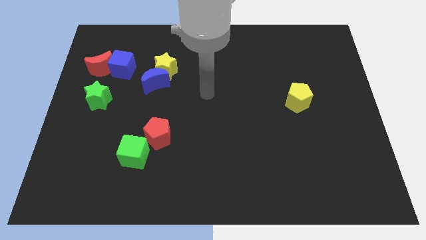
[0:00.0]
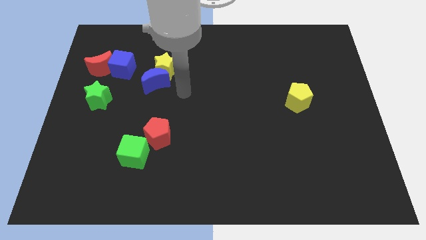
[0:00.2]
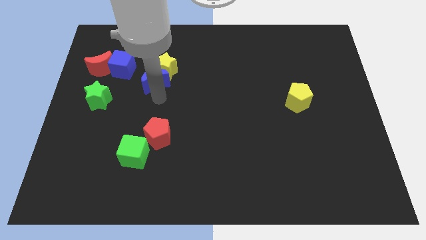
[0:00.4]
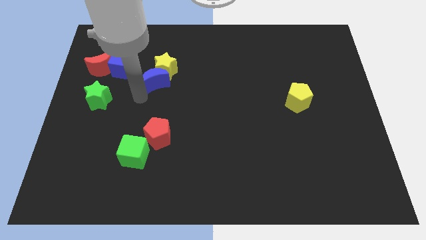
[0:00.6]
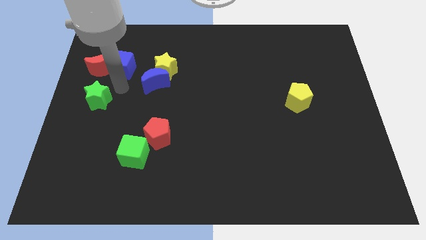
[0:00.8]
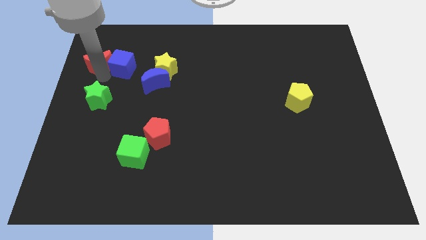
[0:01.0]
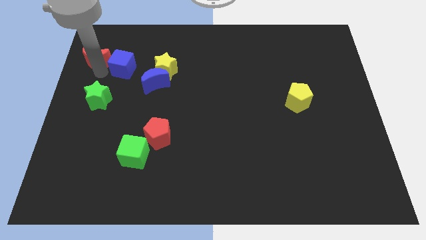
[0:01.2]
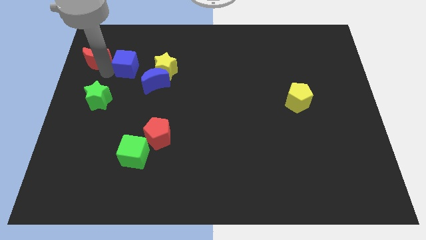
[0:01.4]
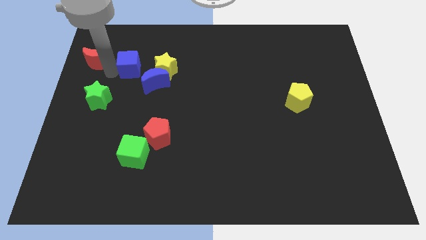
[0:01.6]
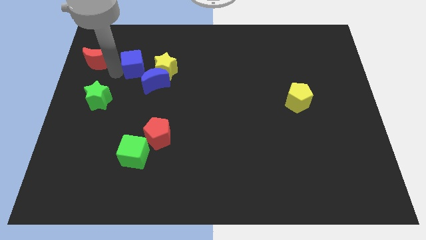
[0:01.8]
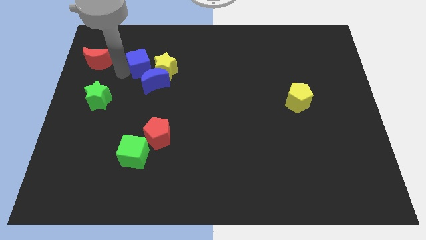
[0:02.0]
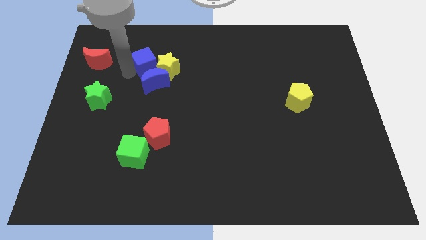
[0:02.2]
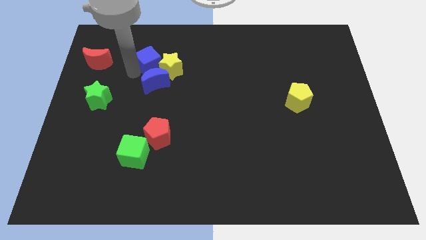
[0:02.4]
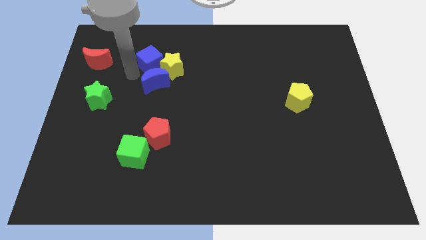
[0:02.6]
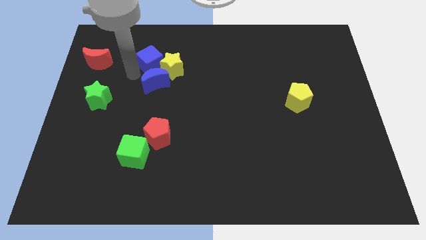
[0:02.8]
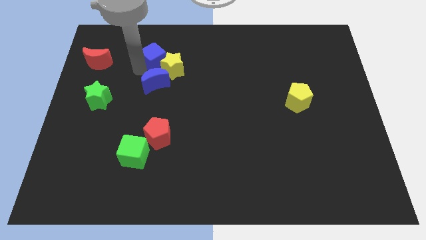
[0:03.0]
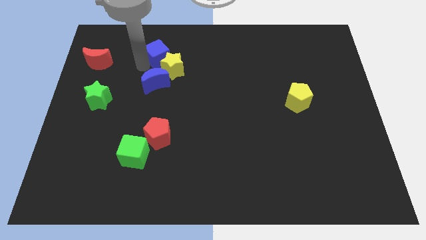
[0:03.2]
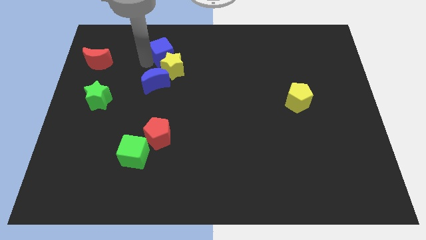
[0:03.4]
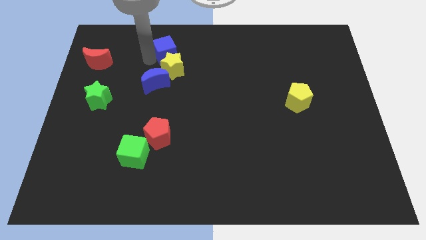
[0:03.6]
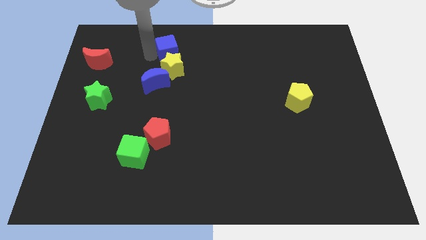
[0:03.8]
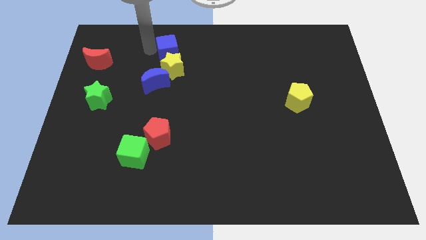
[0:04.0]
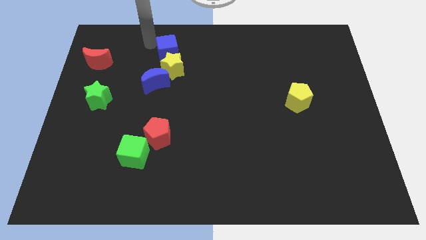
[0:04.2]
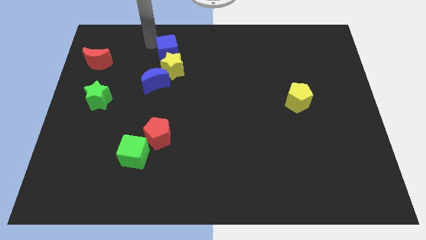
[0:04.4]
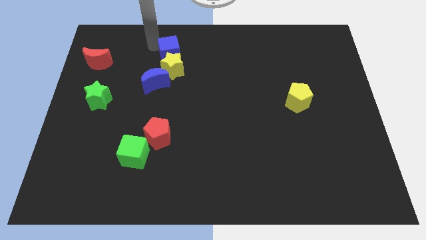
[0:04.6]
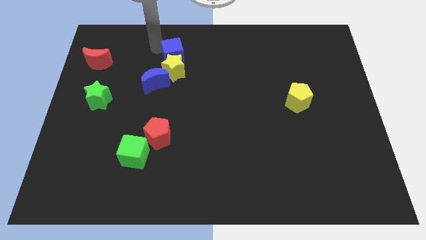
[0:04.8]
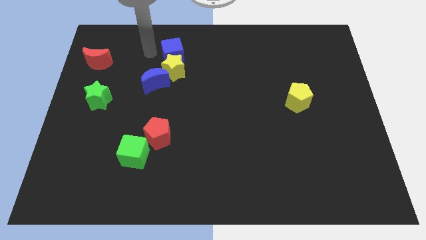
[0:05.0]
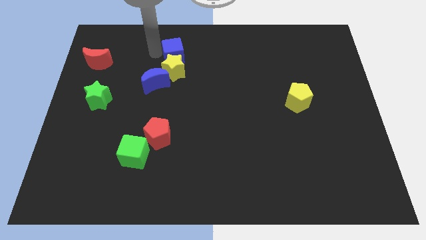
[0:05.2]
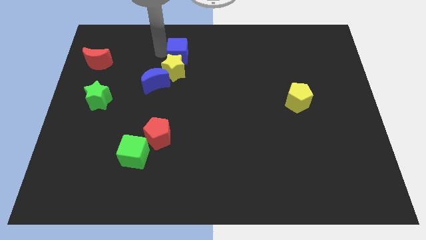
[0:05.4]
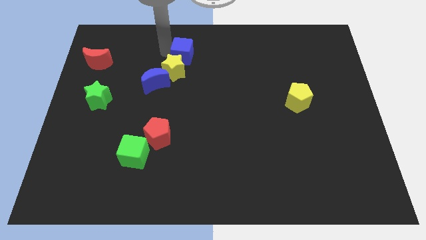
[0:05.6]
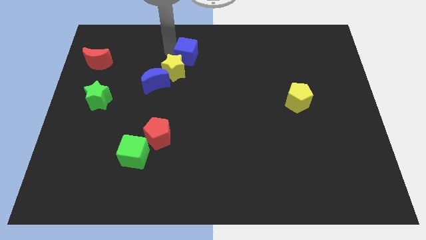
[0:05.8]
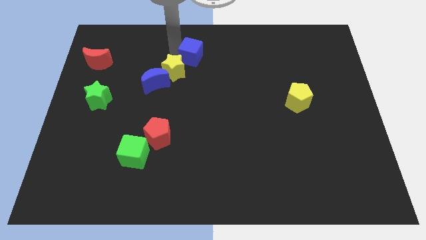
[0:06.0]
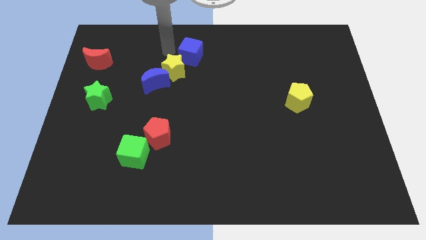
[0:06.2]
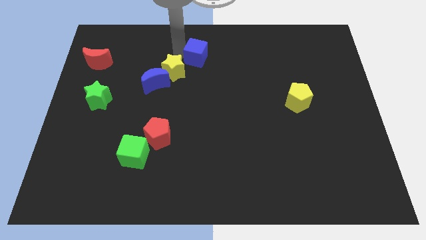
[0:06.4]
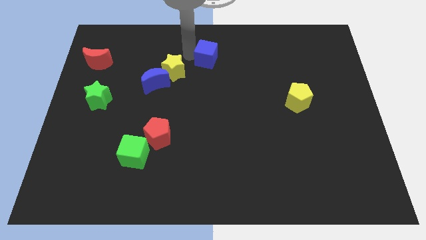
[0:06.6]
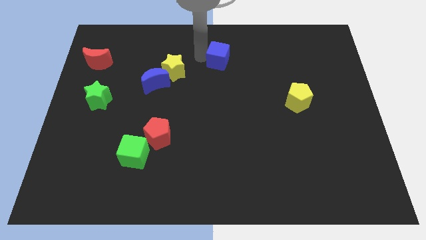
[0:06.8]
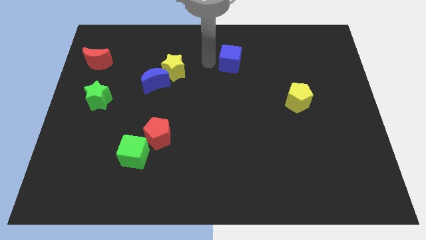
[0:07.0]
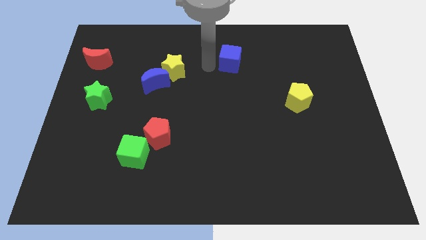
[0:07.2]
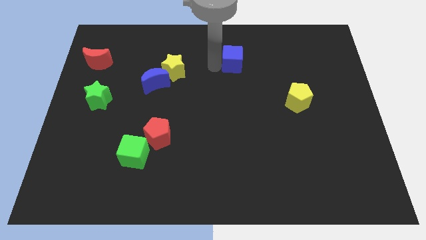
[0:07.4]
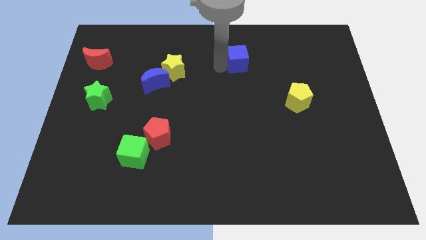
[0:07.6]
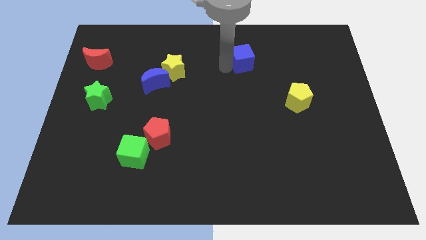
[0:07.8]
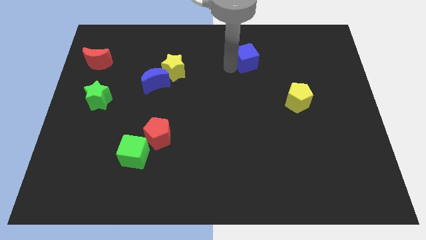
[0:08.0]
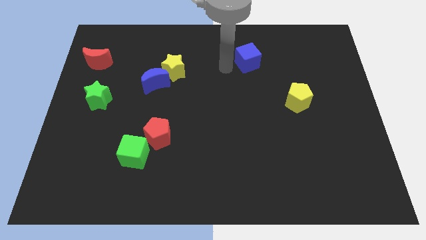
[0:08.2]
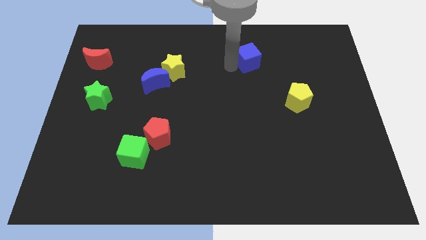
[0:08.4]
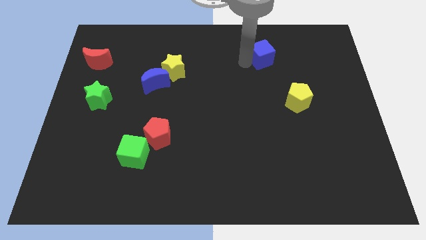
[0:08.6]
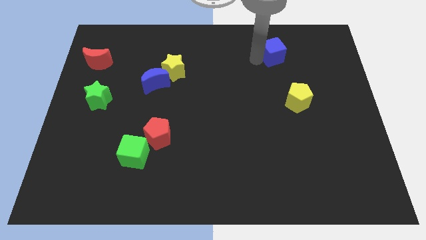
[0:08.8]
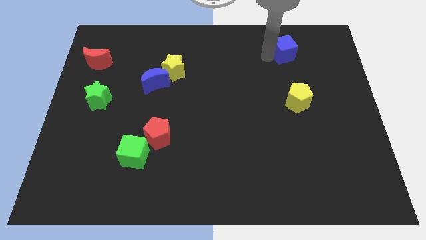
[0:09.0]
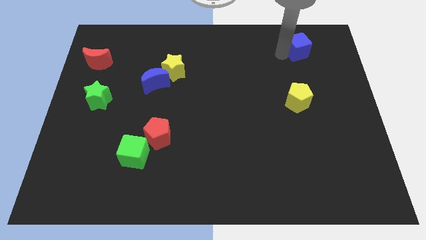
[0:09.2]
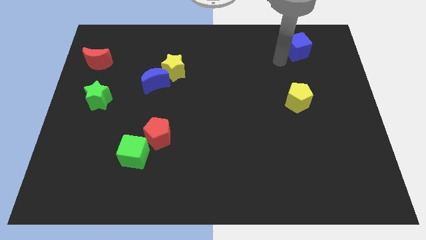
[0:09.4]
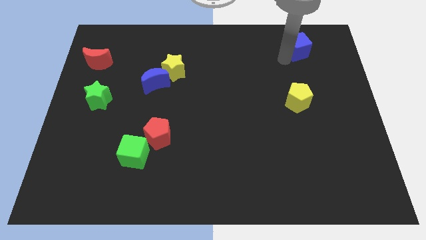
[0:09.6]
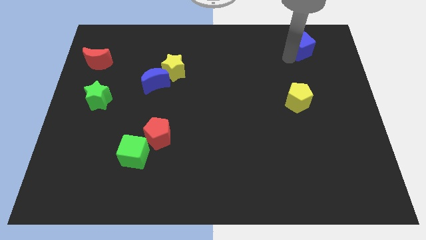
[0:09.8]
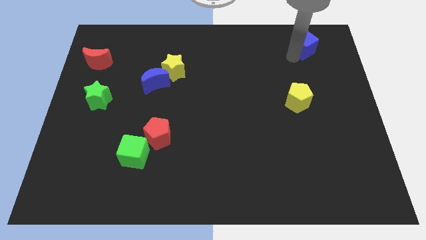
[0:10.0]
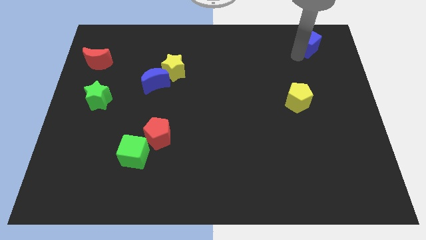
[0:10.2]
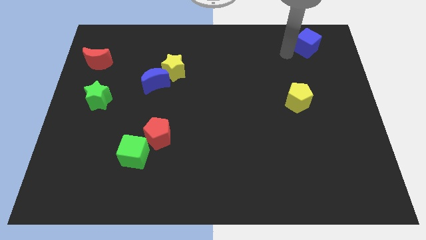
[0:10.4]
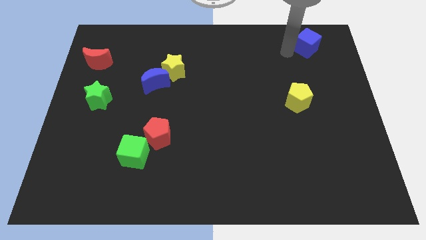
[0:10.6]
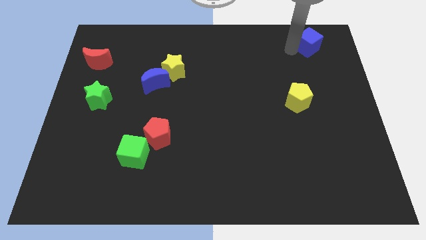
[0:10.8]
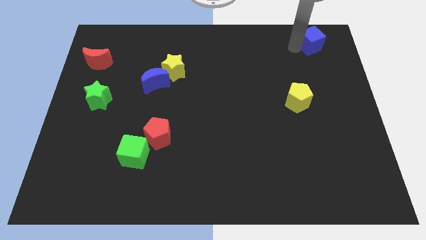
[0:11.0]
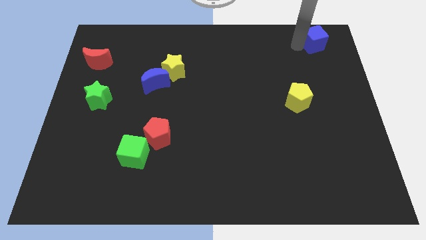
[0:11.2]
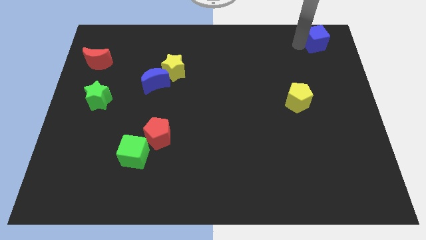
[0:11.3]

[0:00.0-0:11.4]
move the blue cube to the top right corner
